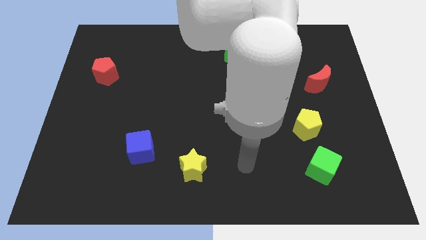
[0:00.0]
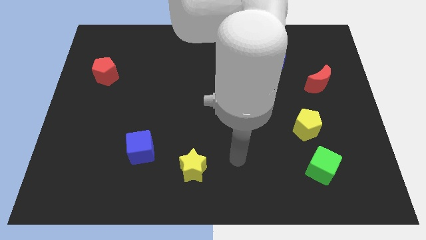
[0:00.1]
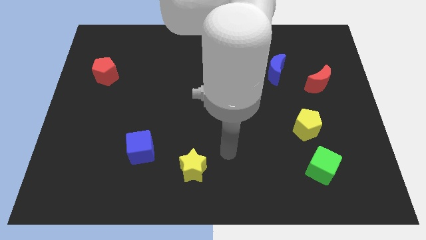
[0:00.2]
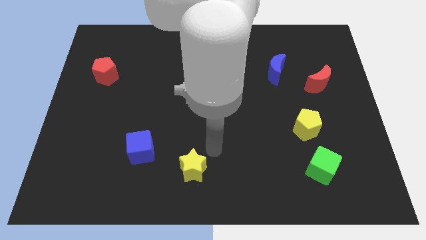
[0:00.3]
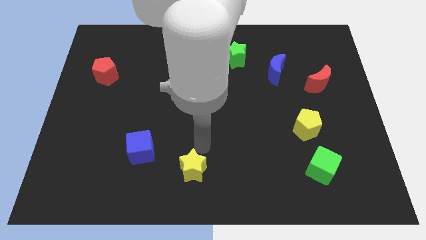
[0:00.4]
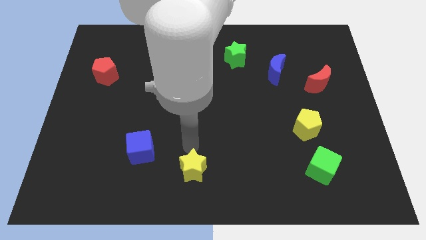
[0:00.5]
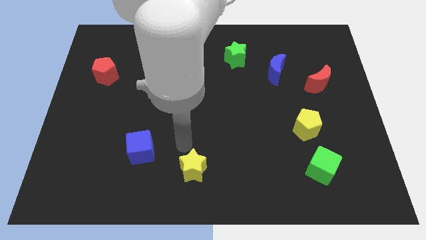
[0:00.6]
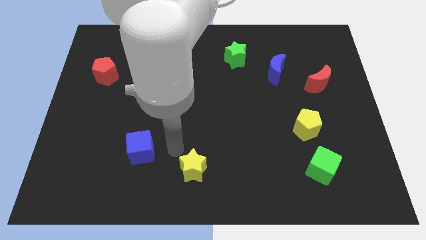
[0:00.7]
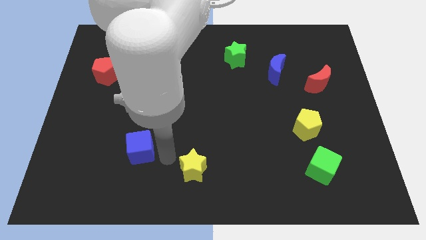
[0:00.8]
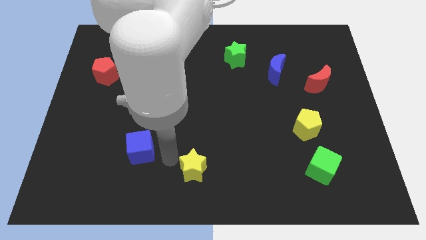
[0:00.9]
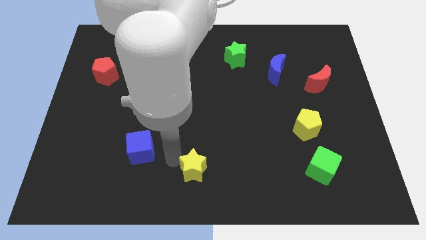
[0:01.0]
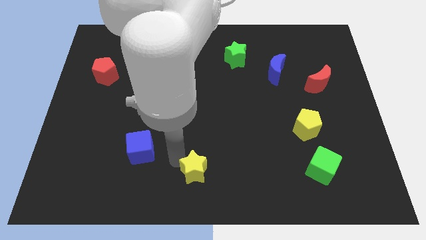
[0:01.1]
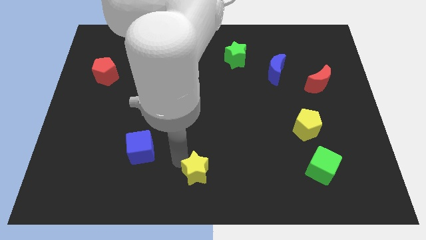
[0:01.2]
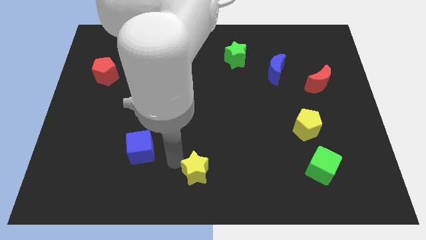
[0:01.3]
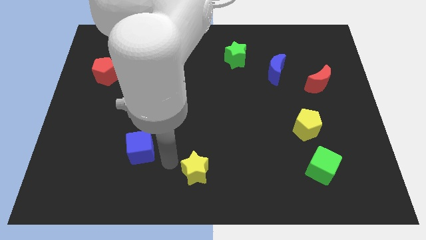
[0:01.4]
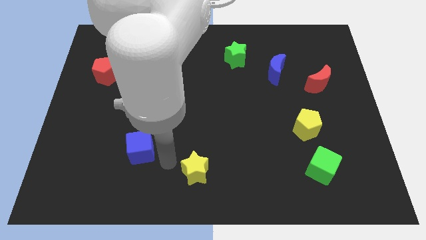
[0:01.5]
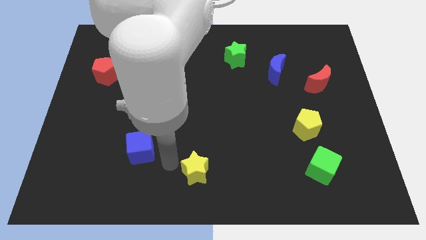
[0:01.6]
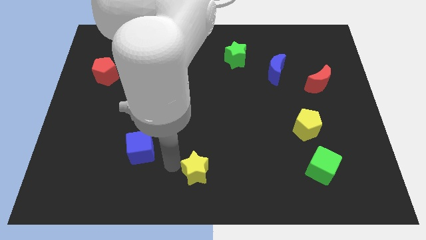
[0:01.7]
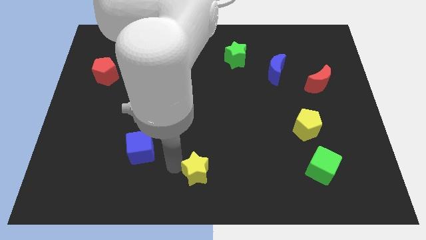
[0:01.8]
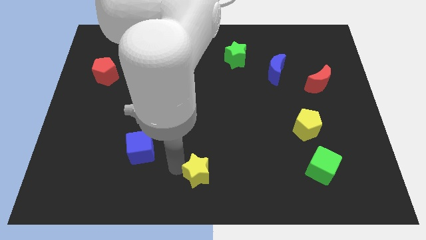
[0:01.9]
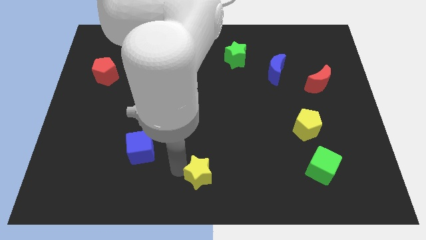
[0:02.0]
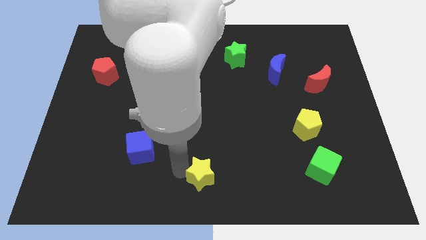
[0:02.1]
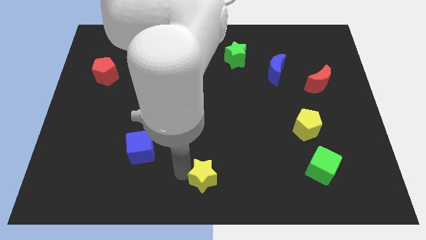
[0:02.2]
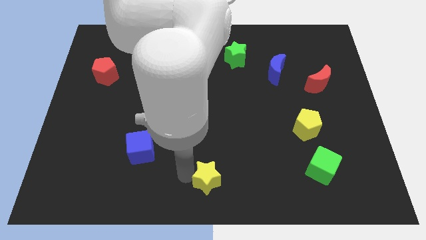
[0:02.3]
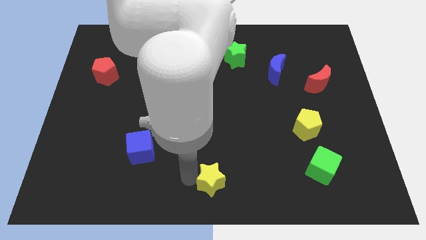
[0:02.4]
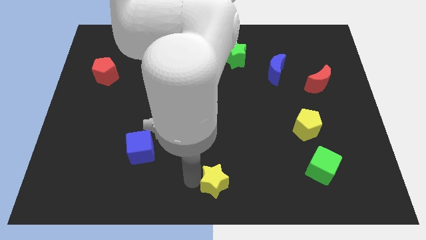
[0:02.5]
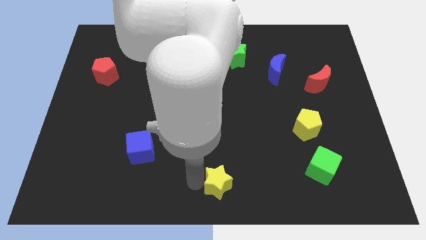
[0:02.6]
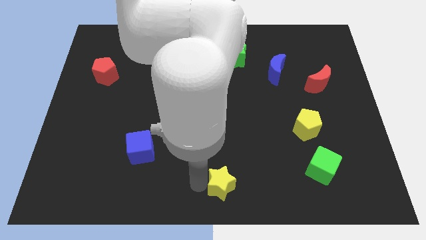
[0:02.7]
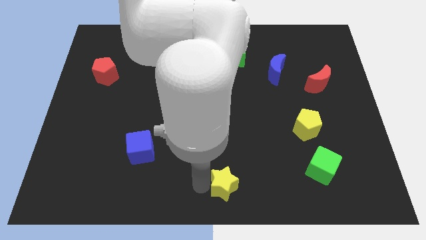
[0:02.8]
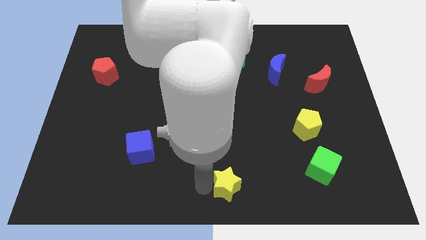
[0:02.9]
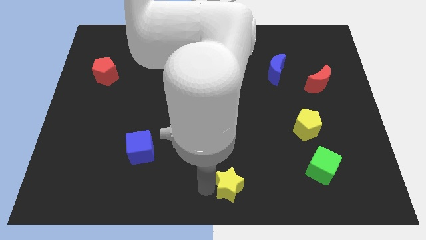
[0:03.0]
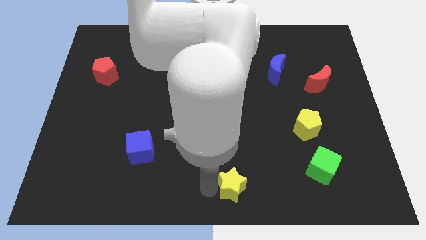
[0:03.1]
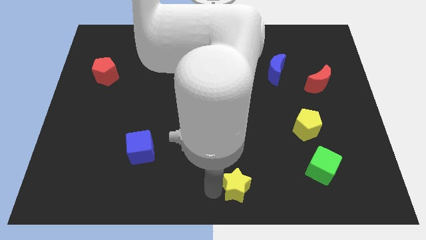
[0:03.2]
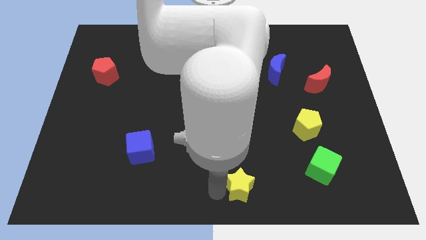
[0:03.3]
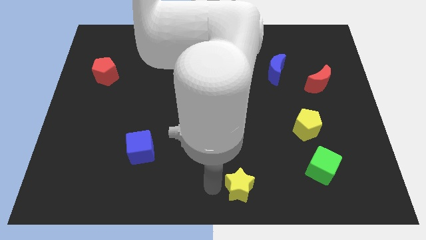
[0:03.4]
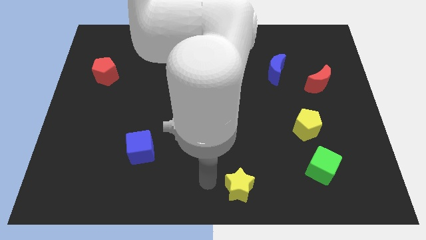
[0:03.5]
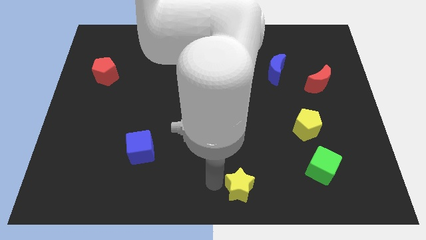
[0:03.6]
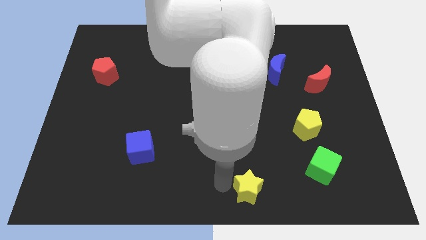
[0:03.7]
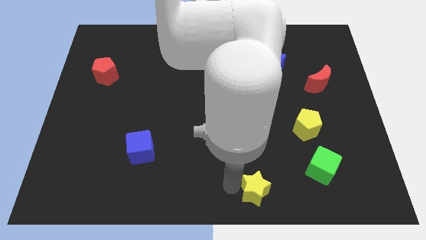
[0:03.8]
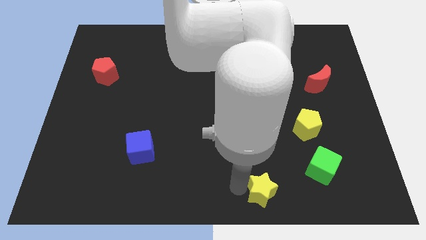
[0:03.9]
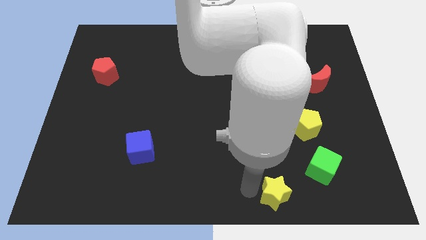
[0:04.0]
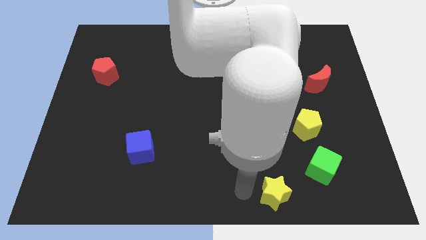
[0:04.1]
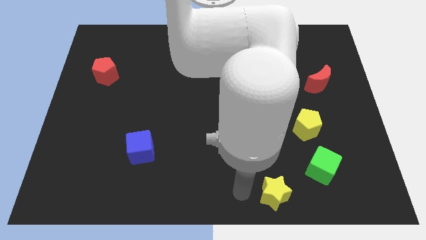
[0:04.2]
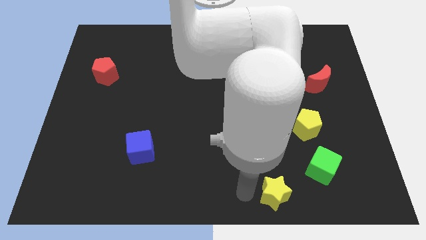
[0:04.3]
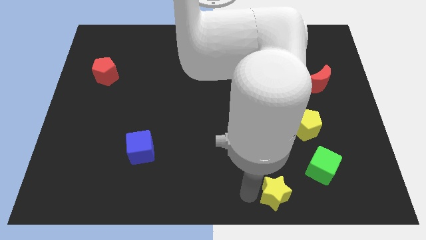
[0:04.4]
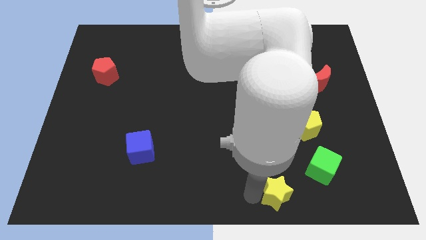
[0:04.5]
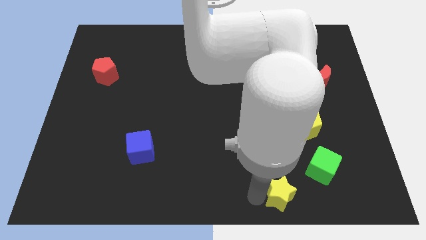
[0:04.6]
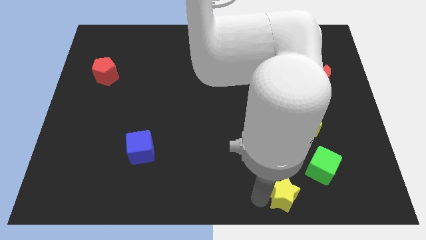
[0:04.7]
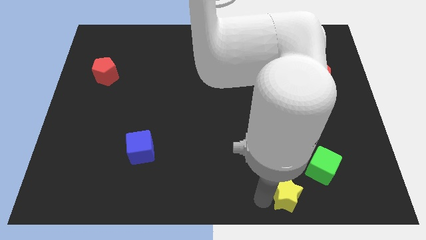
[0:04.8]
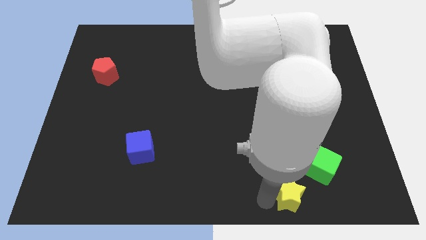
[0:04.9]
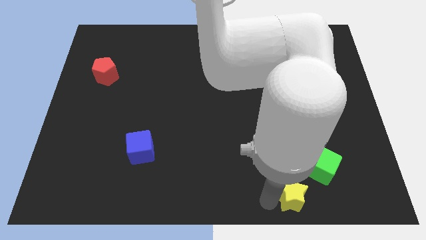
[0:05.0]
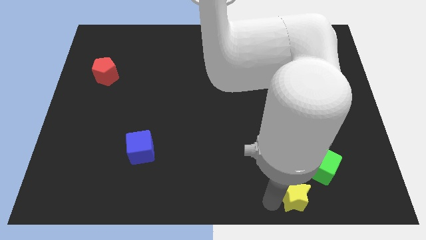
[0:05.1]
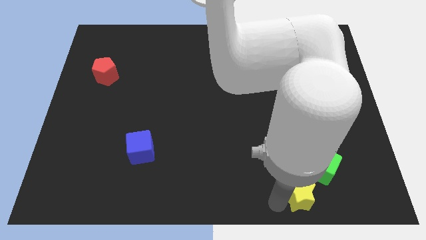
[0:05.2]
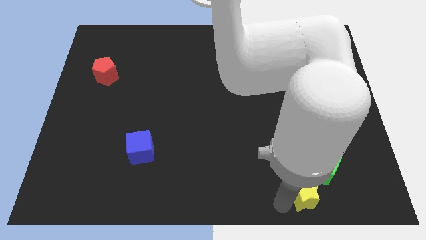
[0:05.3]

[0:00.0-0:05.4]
push the yellow star to the right

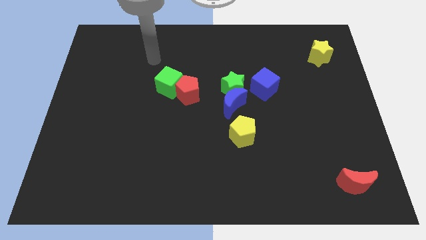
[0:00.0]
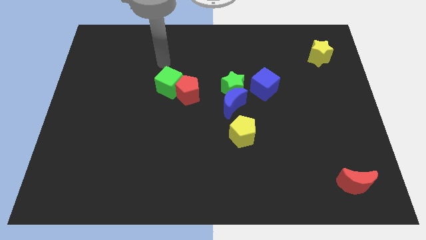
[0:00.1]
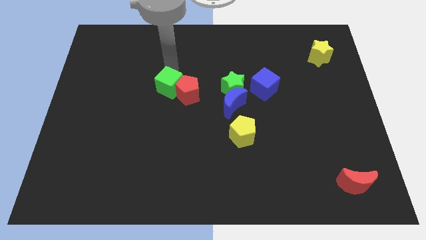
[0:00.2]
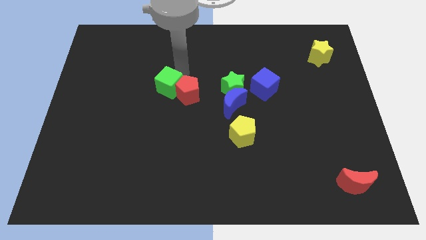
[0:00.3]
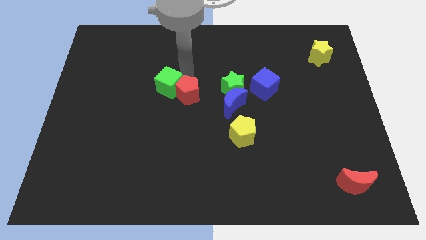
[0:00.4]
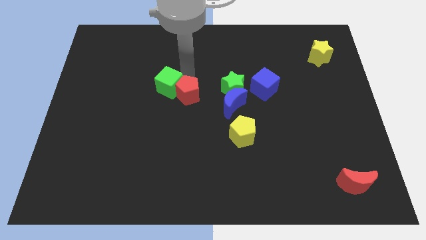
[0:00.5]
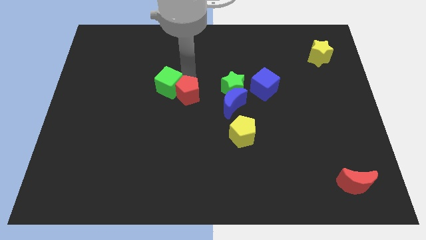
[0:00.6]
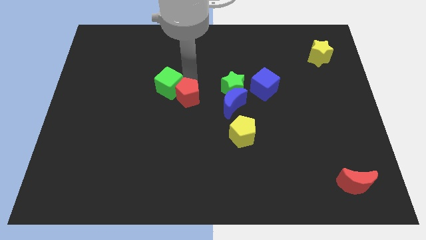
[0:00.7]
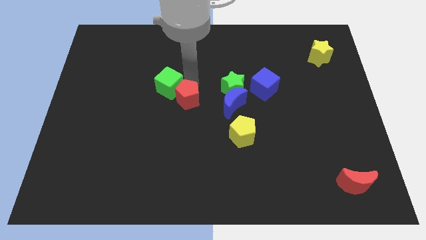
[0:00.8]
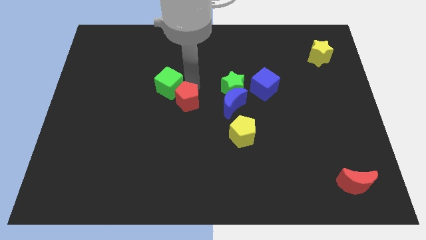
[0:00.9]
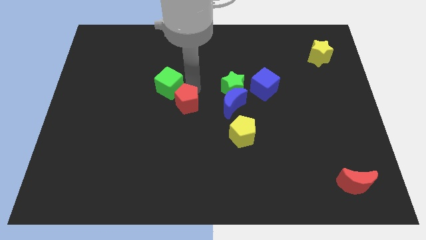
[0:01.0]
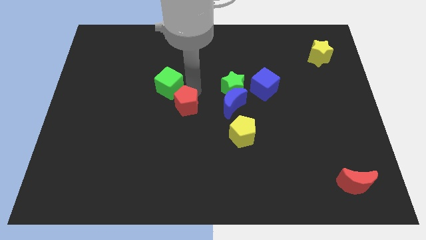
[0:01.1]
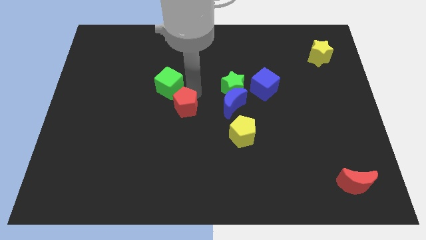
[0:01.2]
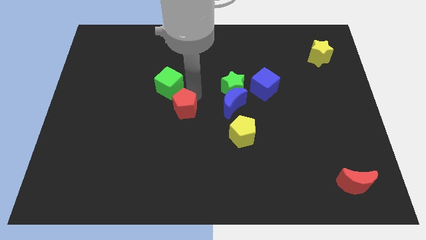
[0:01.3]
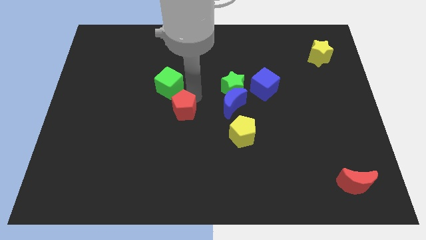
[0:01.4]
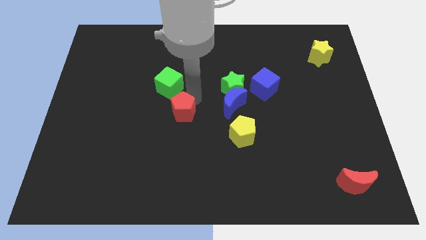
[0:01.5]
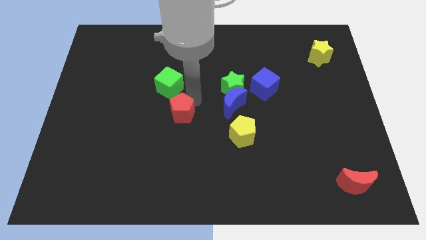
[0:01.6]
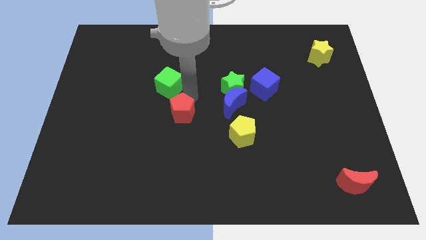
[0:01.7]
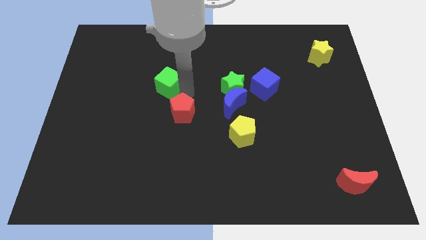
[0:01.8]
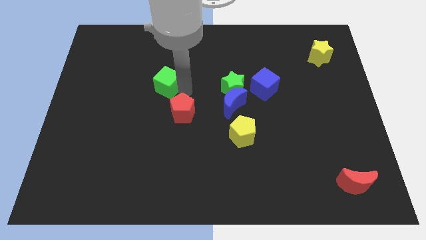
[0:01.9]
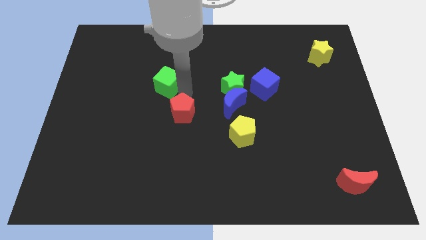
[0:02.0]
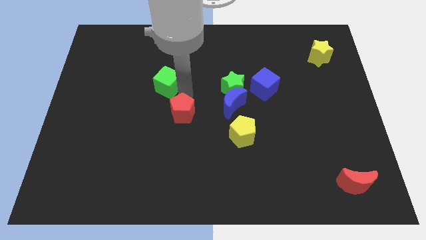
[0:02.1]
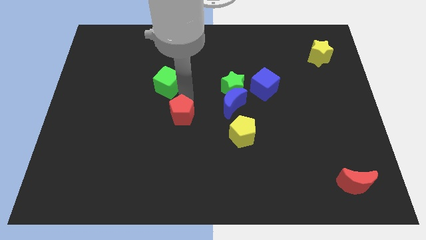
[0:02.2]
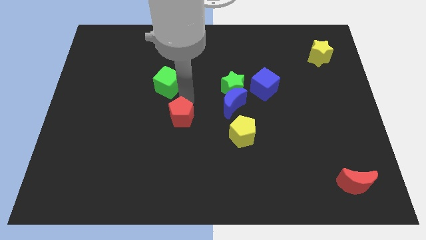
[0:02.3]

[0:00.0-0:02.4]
slightly move the red pentagon downwards
